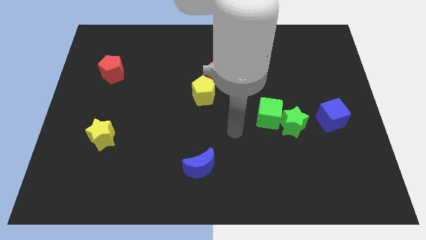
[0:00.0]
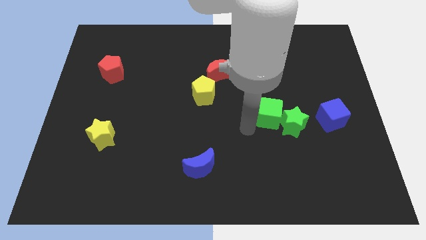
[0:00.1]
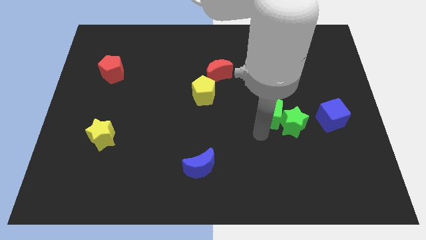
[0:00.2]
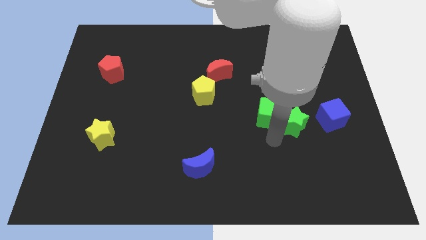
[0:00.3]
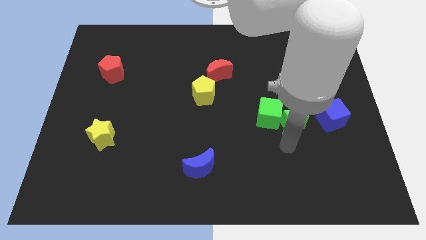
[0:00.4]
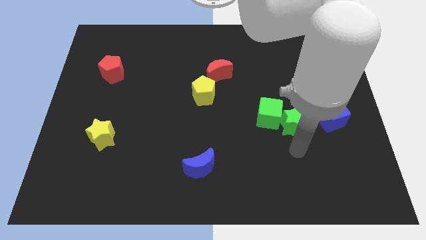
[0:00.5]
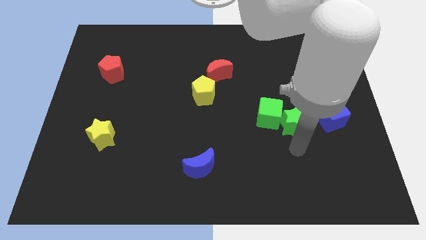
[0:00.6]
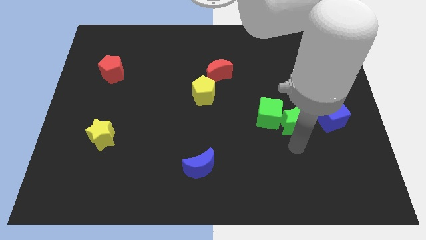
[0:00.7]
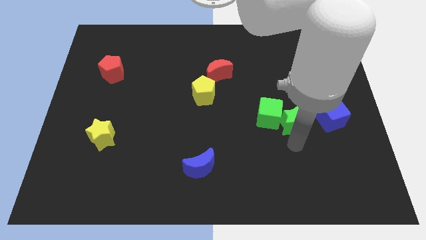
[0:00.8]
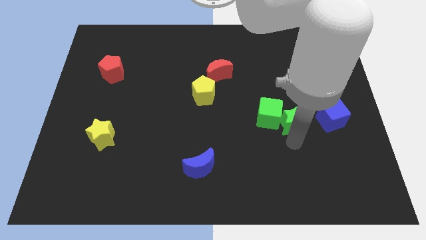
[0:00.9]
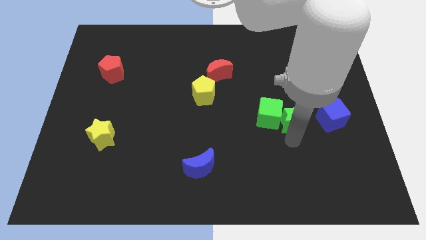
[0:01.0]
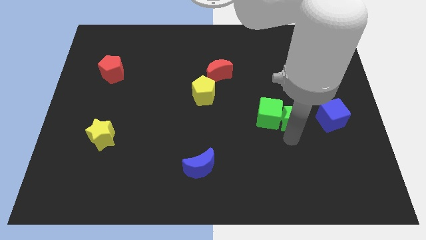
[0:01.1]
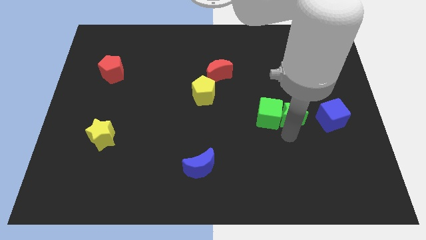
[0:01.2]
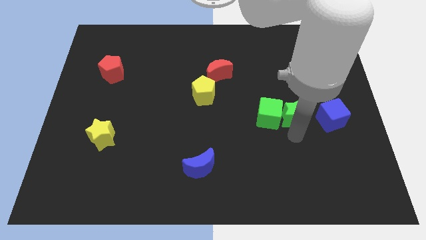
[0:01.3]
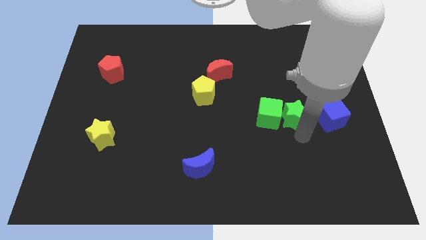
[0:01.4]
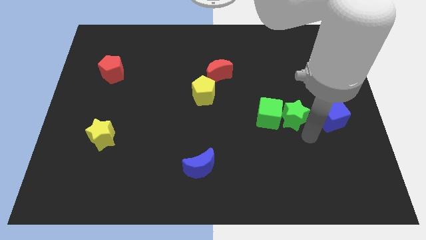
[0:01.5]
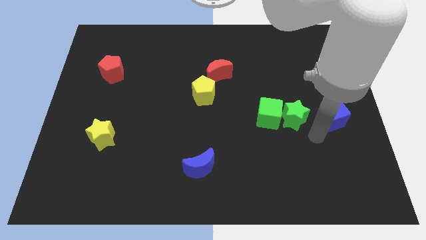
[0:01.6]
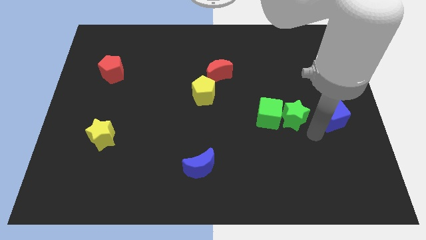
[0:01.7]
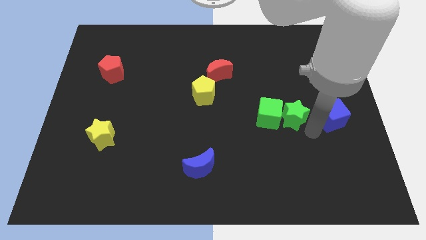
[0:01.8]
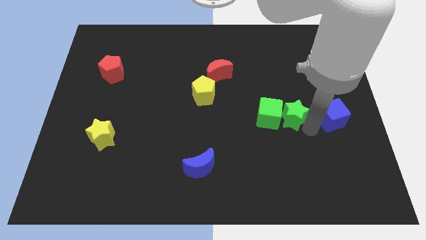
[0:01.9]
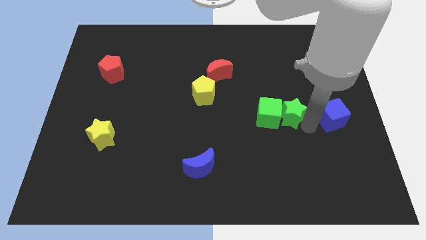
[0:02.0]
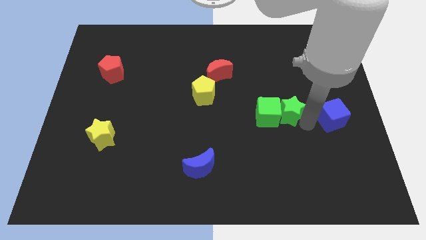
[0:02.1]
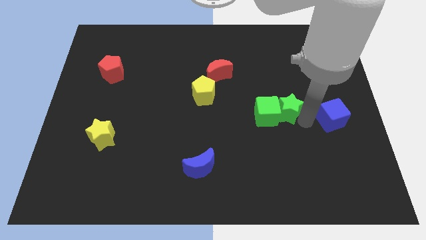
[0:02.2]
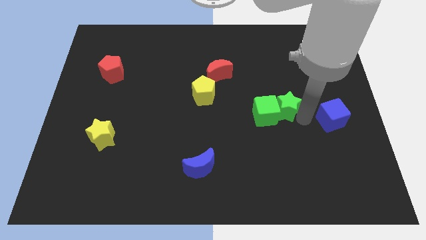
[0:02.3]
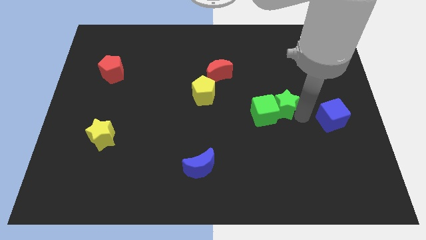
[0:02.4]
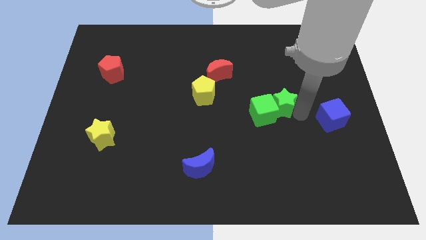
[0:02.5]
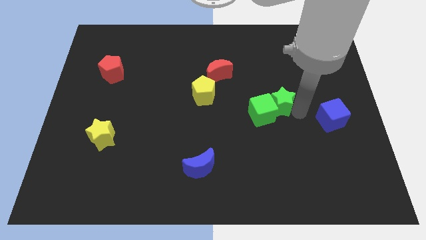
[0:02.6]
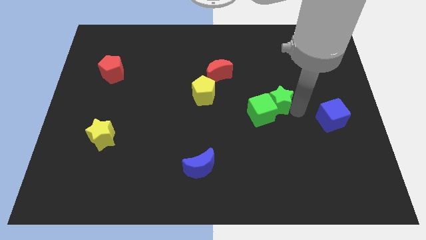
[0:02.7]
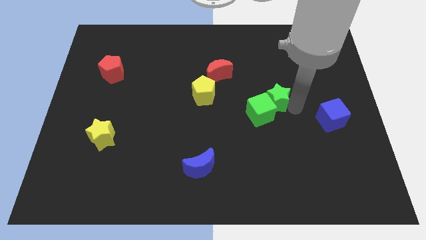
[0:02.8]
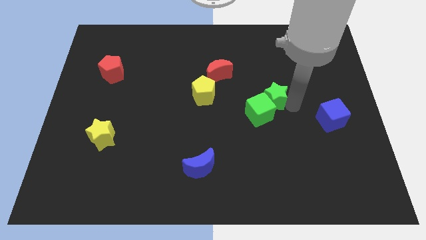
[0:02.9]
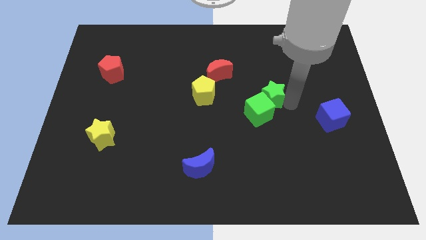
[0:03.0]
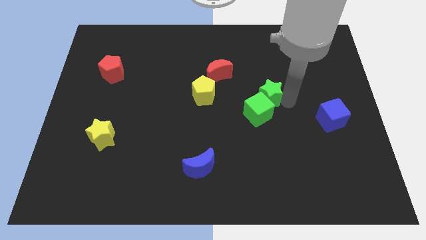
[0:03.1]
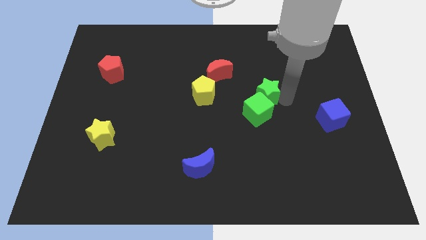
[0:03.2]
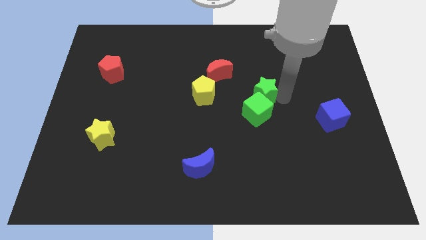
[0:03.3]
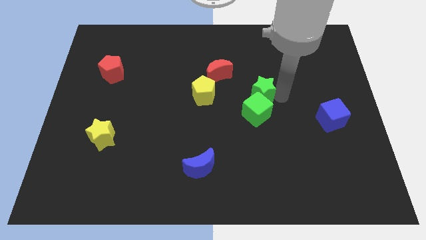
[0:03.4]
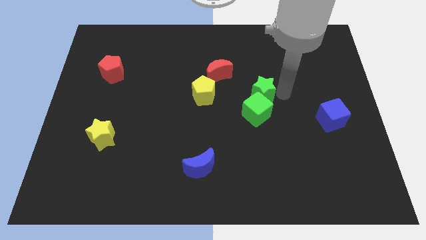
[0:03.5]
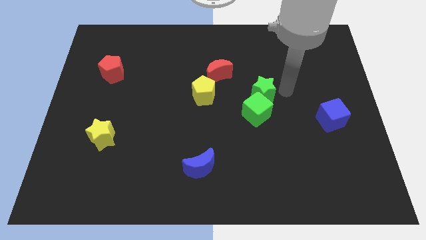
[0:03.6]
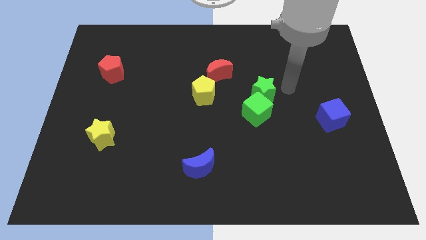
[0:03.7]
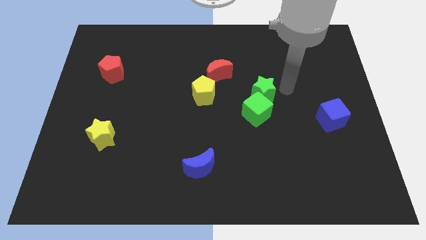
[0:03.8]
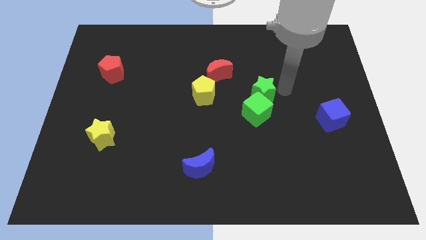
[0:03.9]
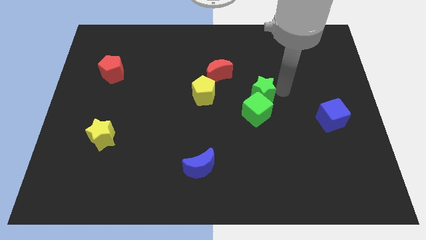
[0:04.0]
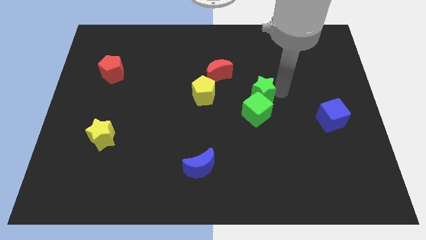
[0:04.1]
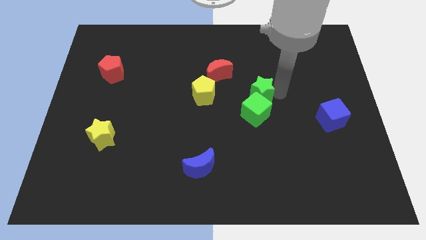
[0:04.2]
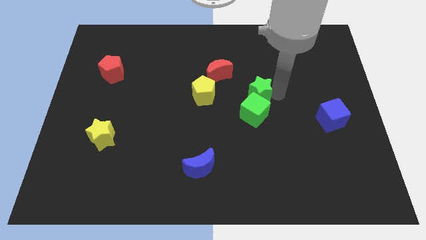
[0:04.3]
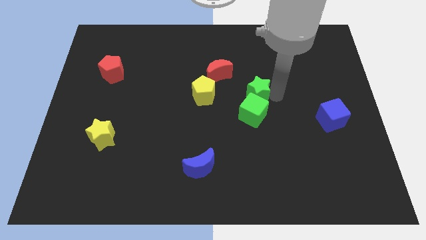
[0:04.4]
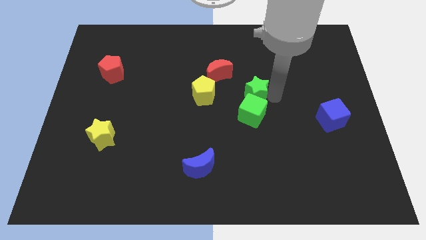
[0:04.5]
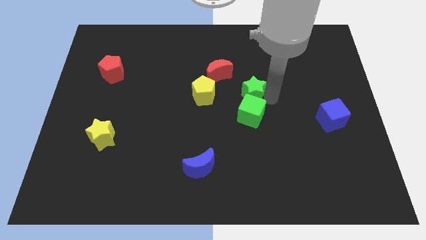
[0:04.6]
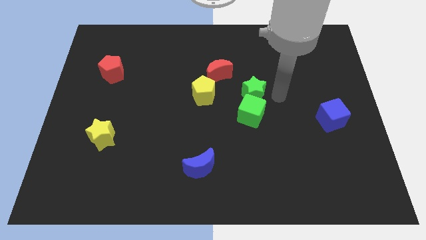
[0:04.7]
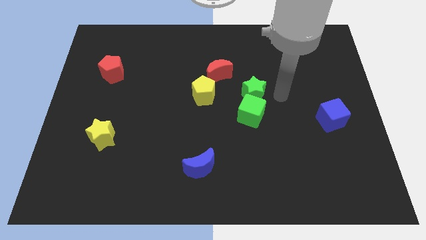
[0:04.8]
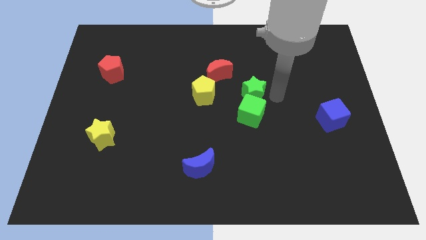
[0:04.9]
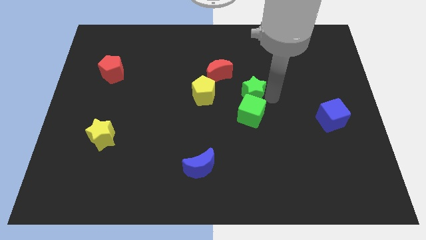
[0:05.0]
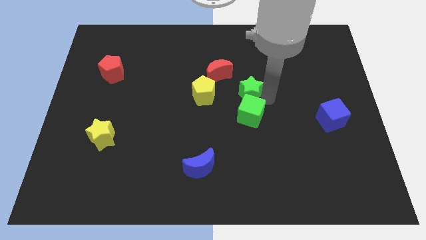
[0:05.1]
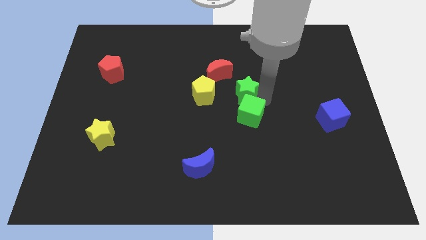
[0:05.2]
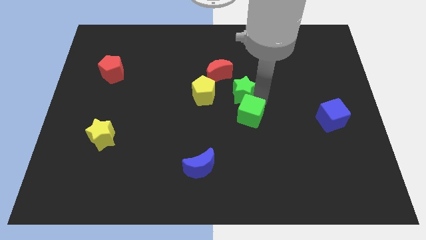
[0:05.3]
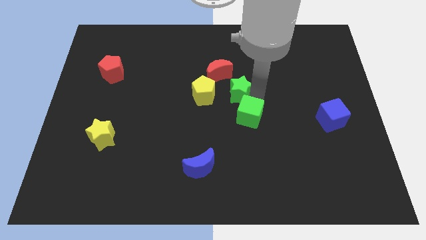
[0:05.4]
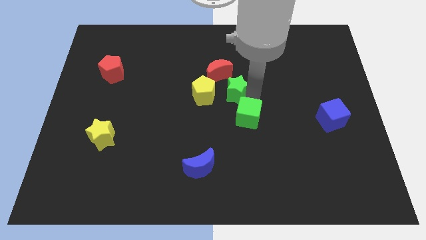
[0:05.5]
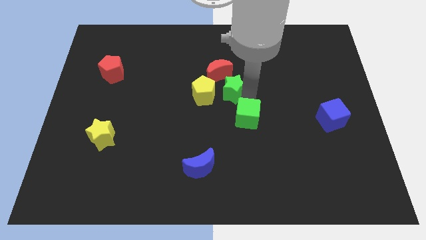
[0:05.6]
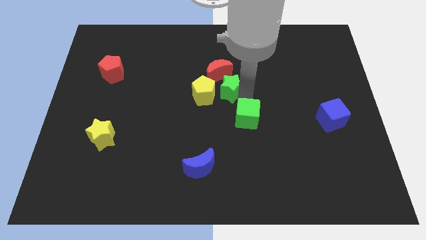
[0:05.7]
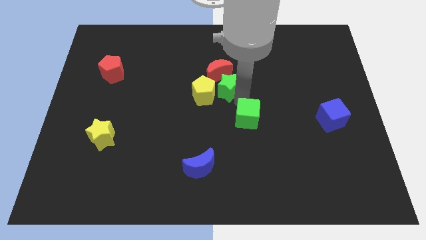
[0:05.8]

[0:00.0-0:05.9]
put the green star to the yellow pentagon
